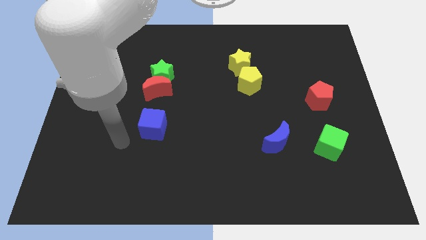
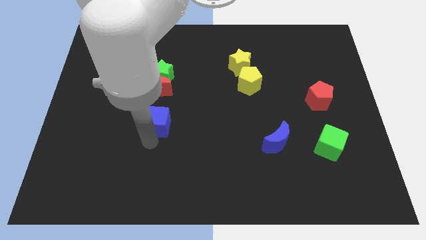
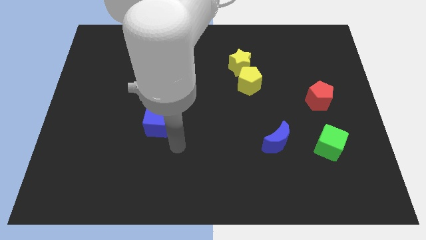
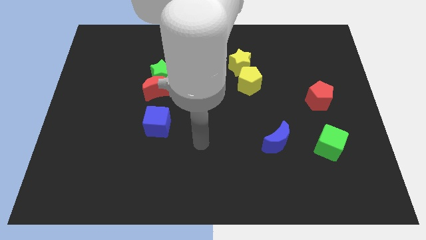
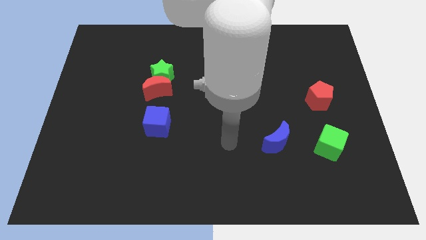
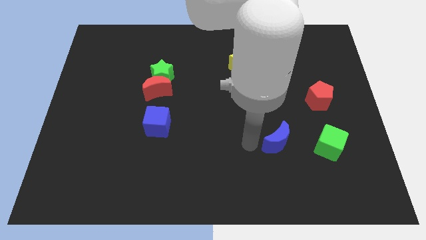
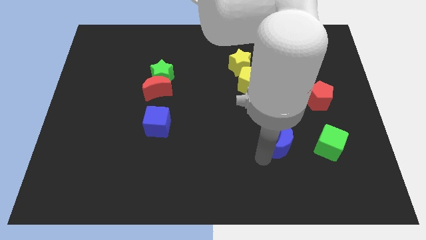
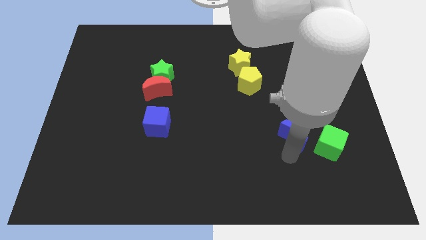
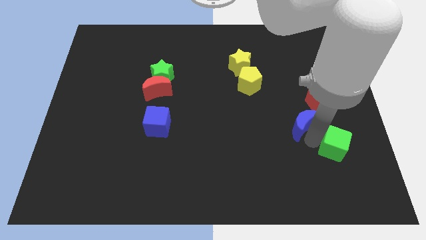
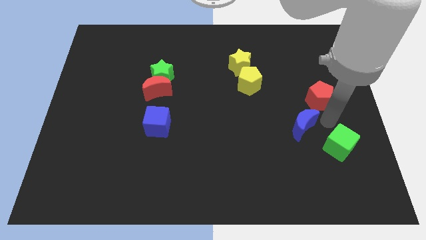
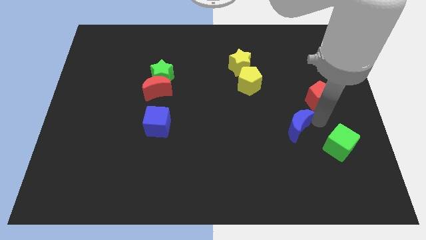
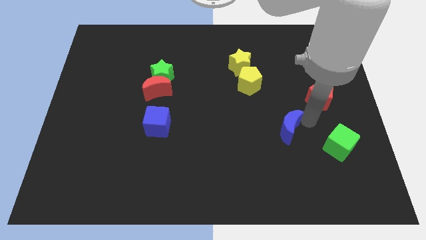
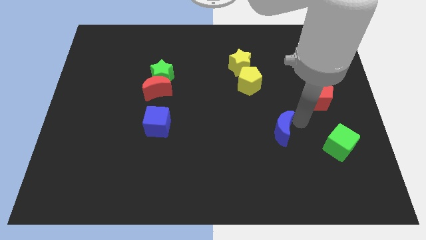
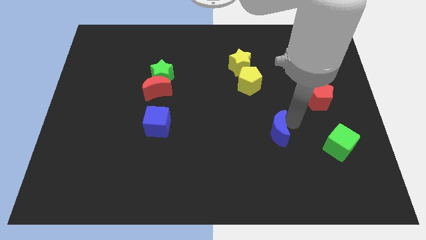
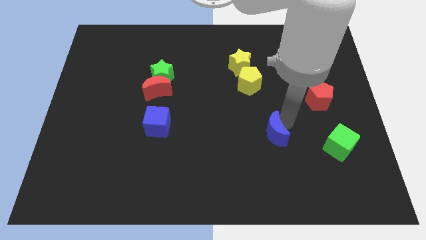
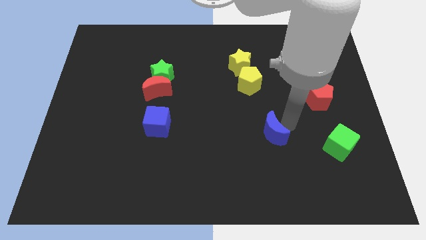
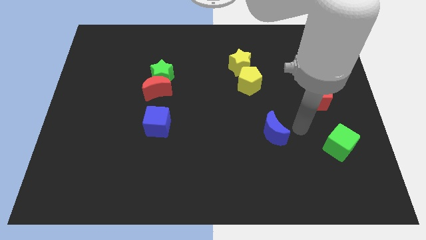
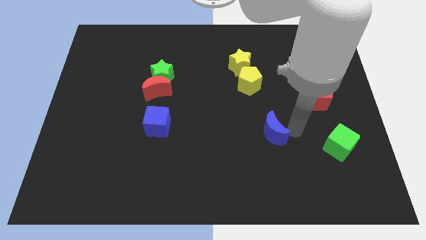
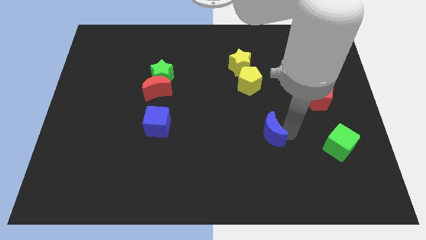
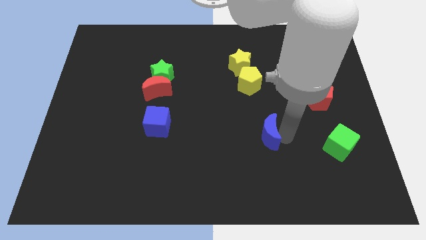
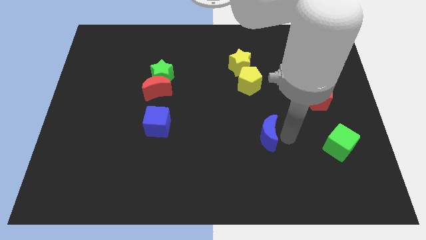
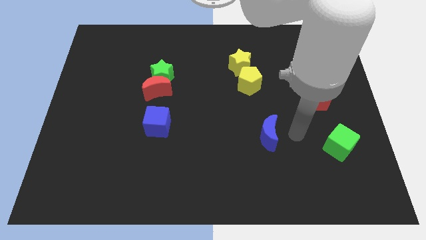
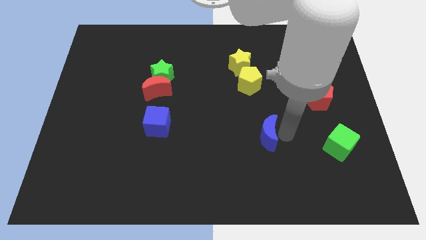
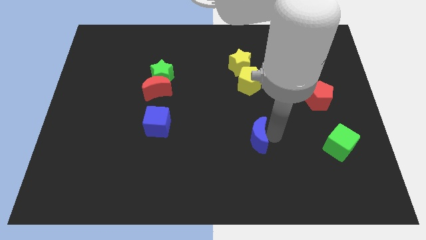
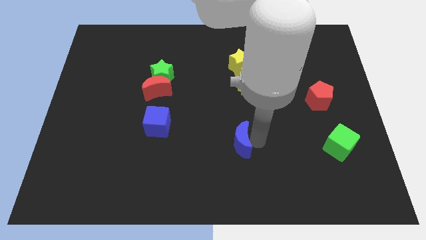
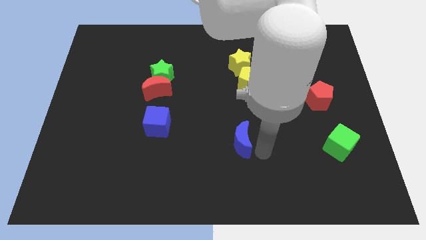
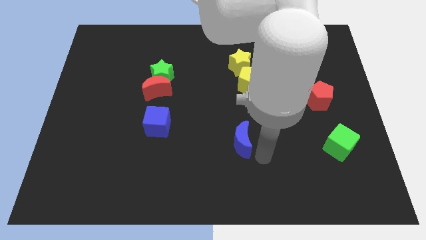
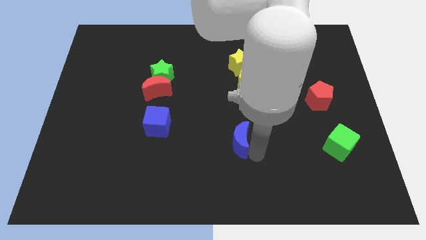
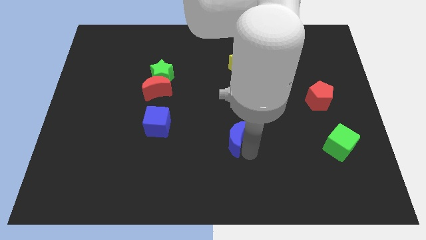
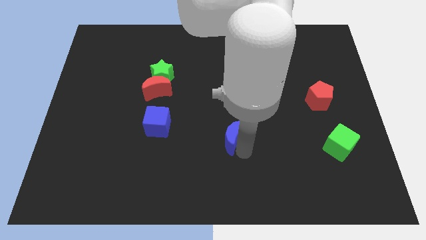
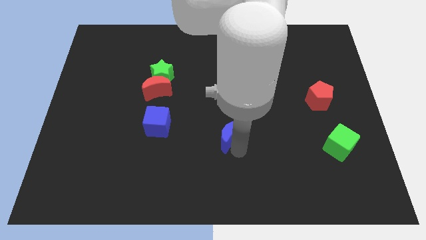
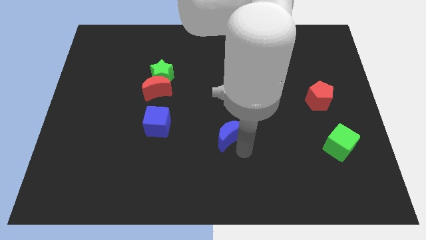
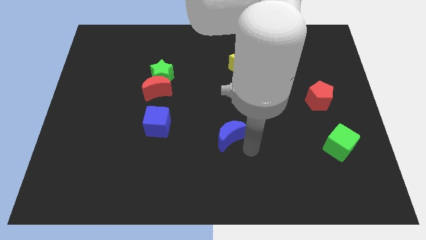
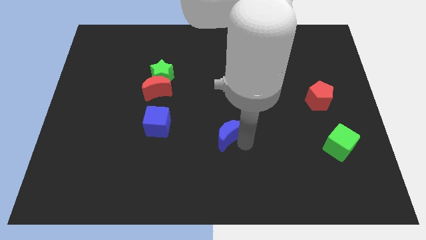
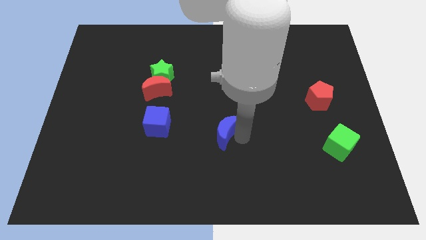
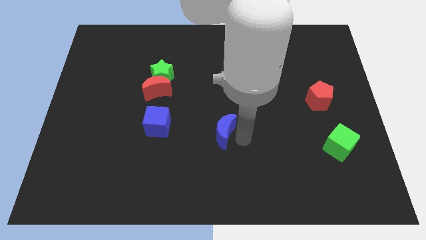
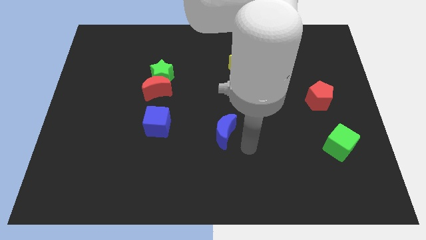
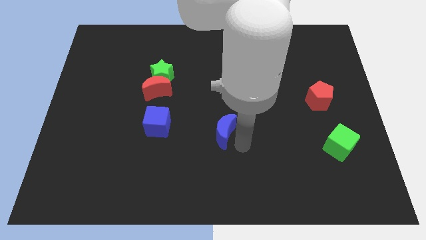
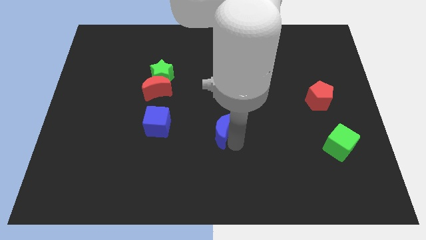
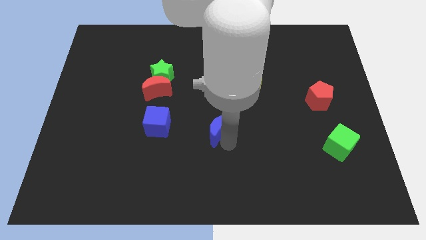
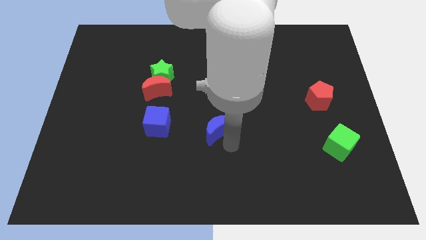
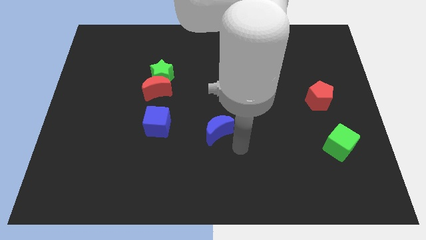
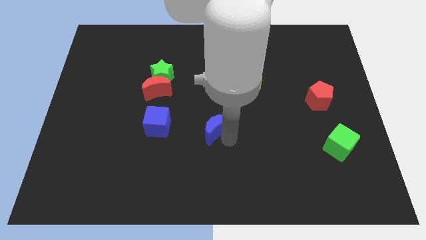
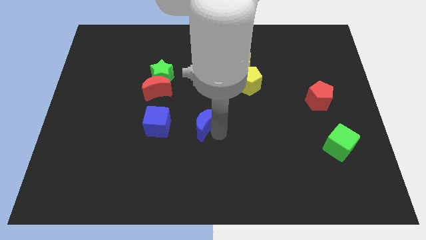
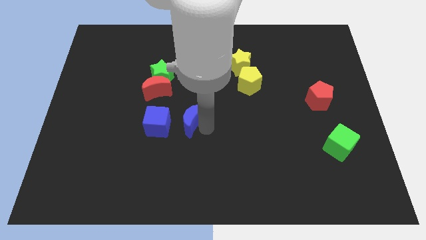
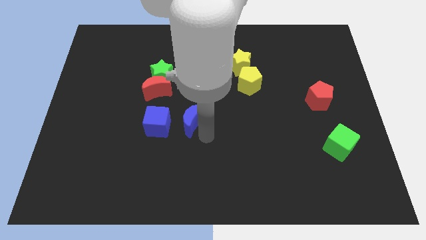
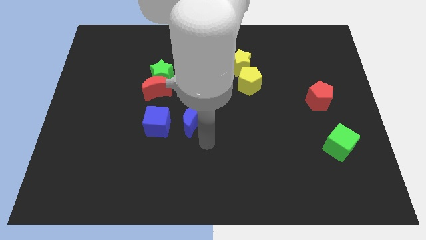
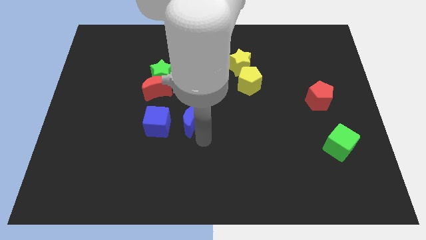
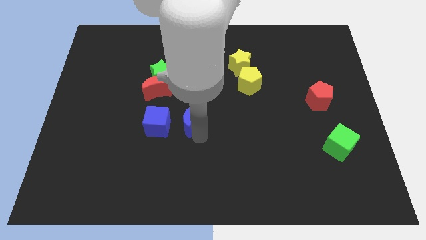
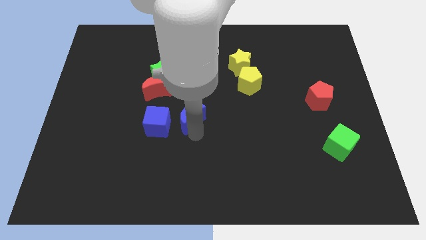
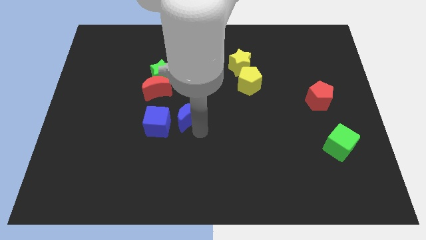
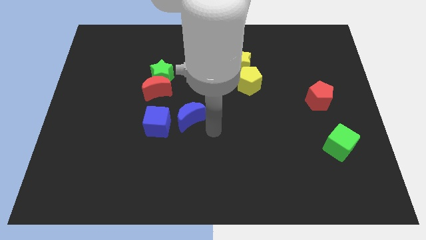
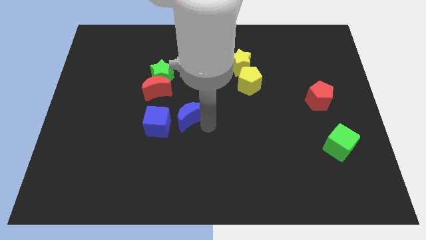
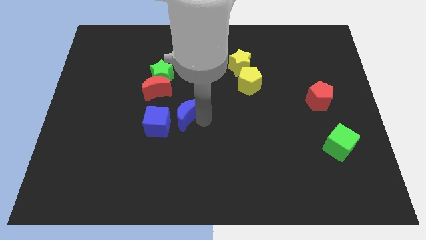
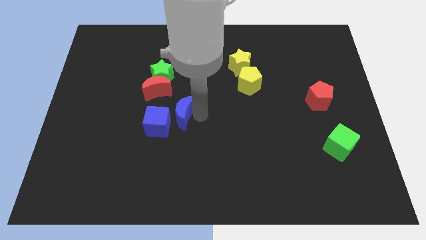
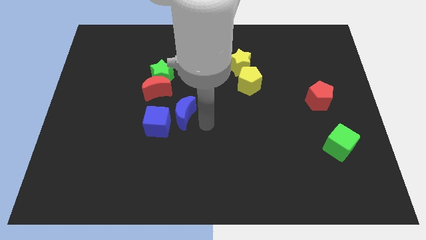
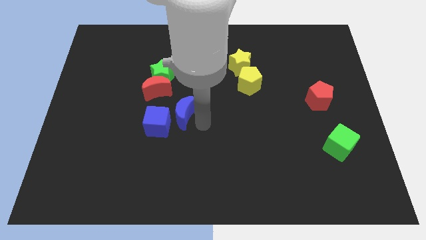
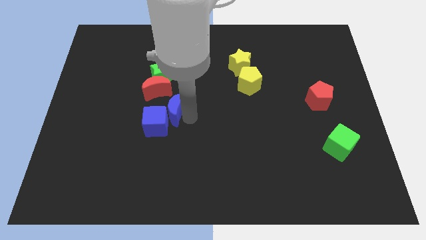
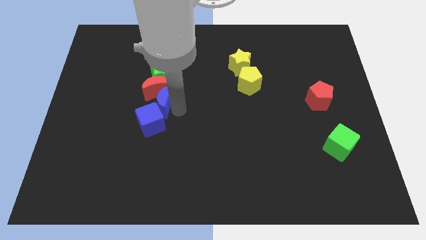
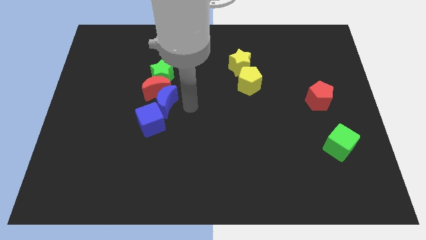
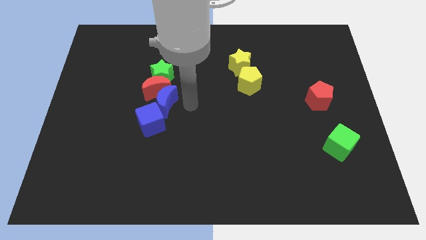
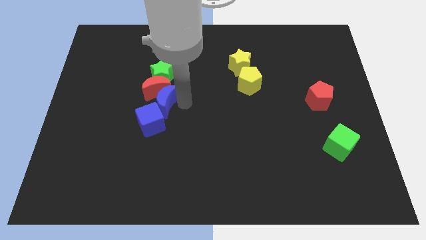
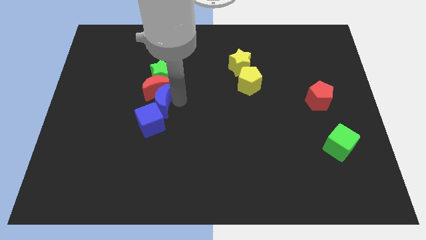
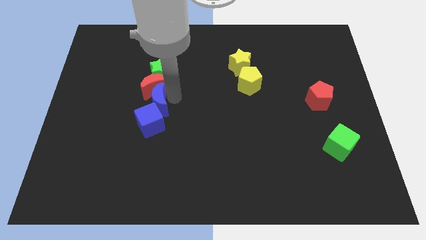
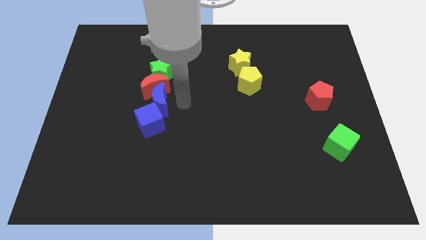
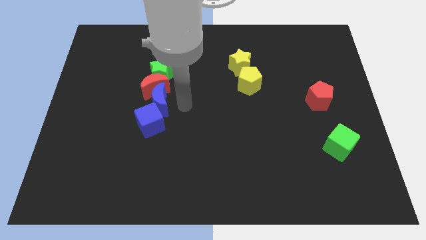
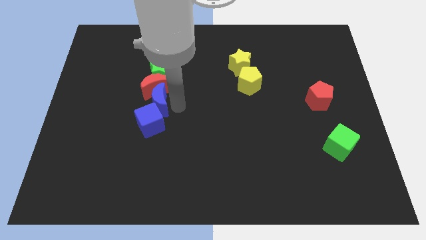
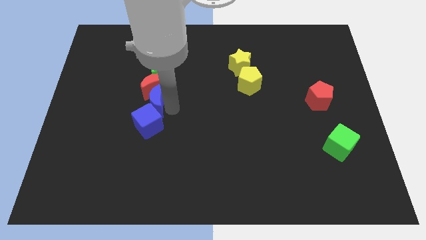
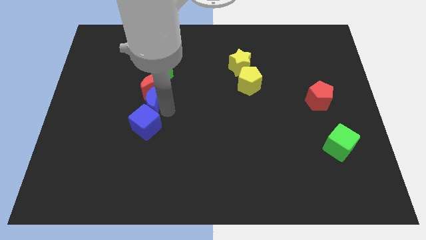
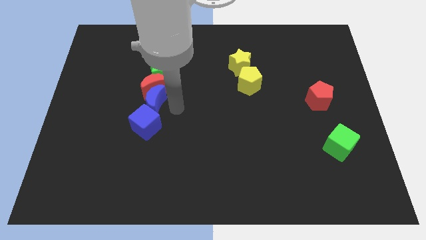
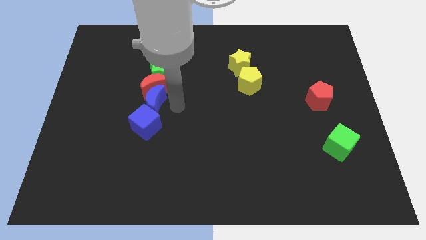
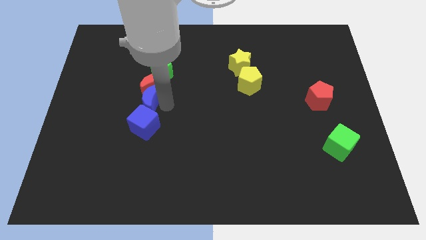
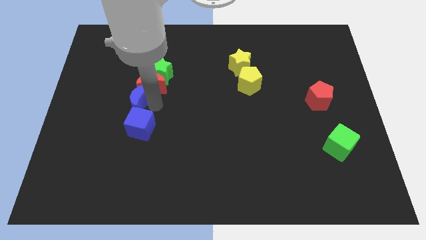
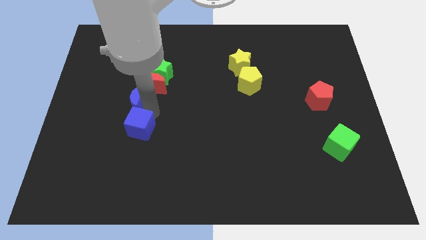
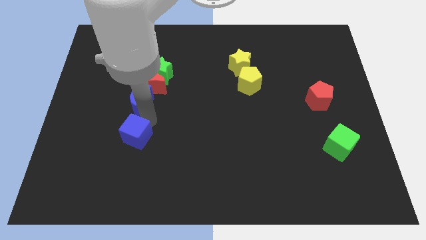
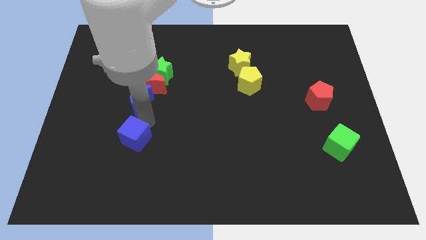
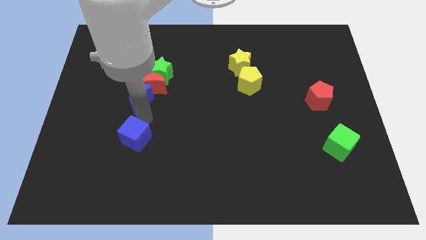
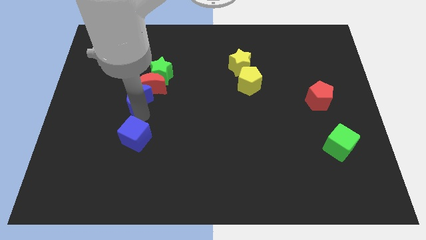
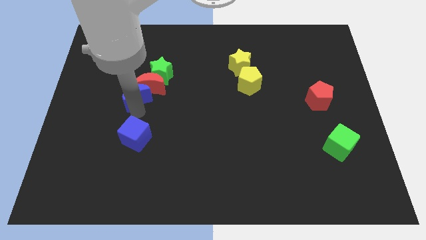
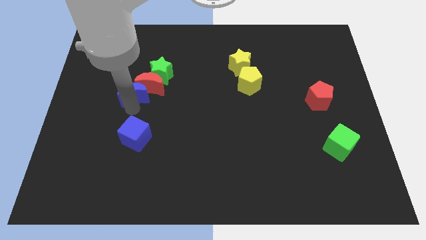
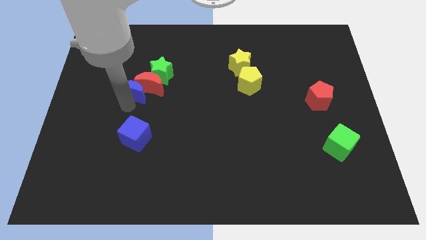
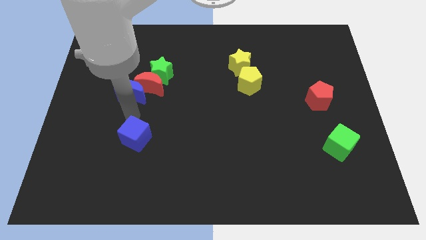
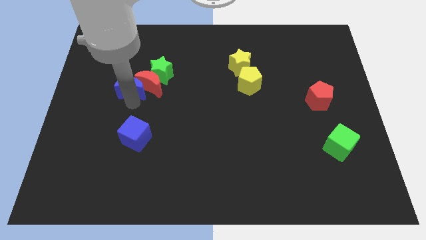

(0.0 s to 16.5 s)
move the blue moon to the top left of the red moon
